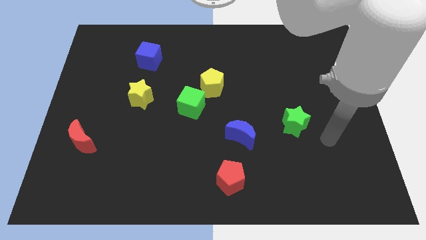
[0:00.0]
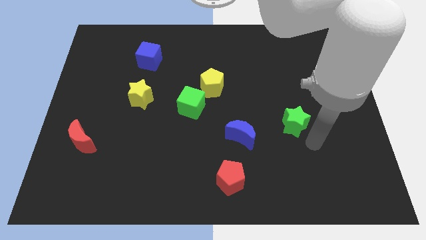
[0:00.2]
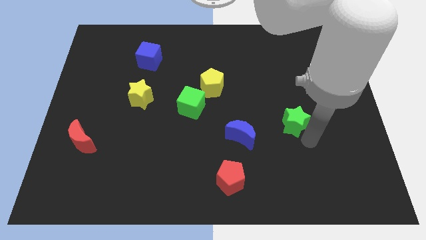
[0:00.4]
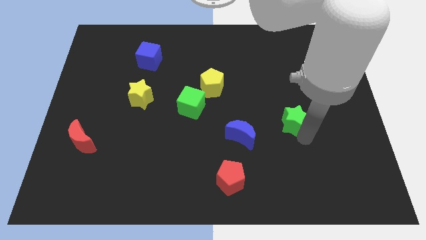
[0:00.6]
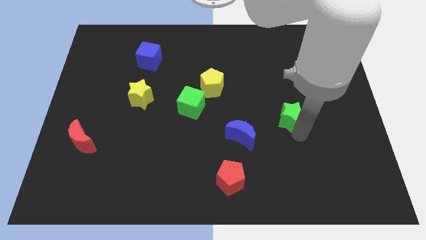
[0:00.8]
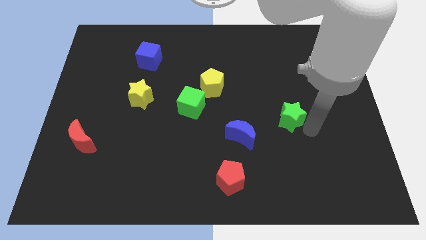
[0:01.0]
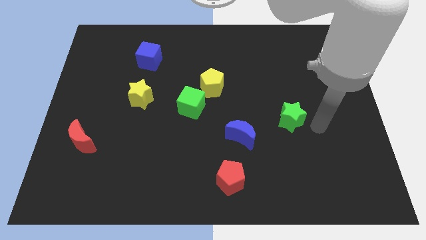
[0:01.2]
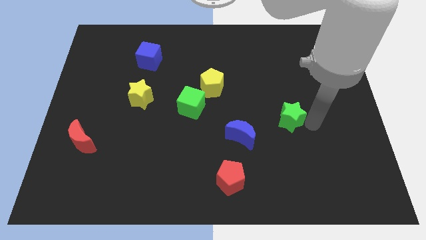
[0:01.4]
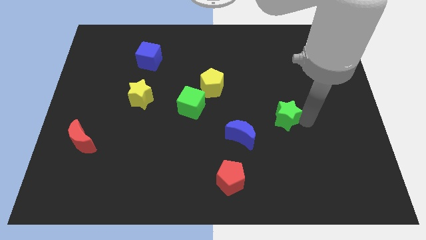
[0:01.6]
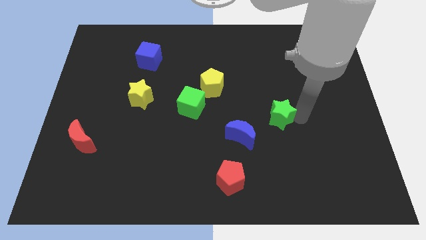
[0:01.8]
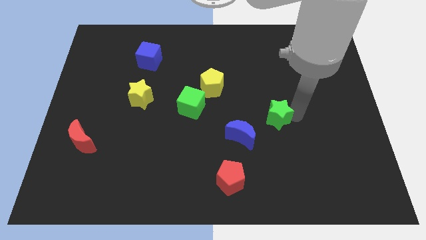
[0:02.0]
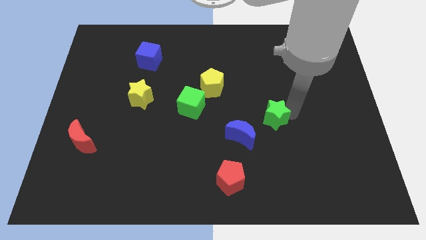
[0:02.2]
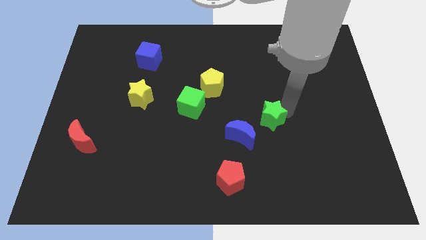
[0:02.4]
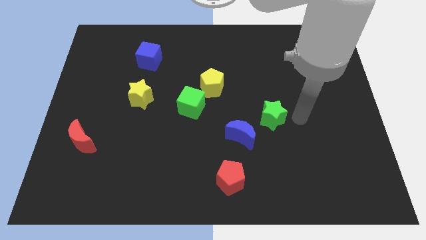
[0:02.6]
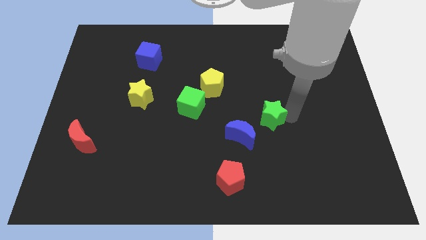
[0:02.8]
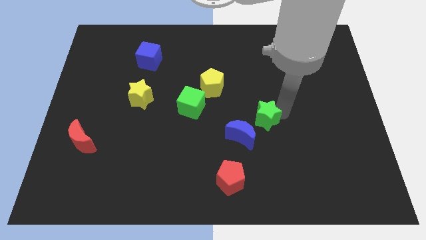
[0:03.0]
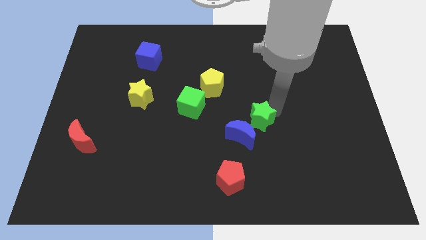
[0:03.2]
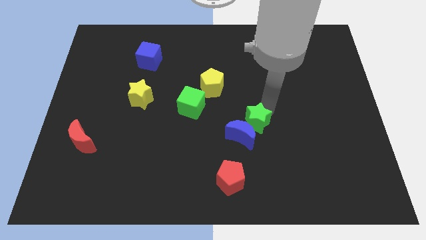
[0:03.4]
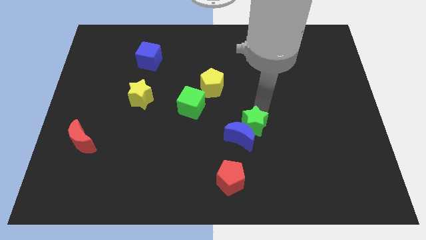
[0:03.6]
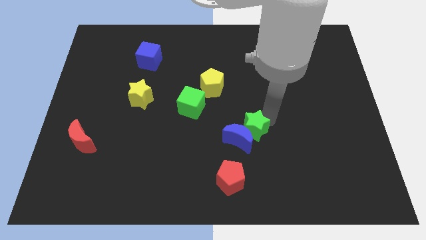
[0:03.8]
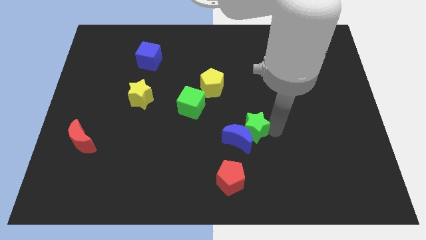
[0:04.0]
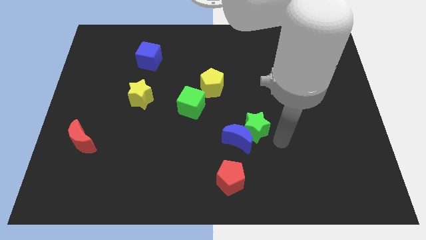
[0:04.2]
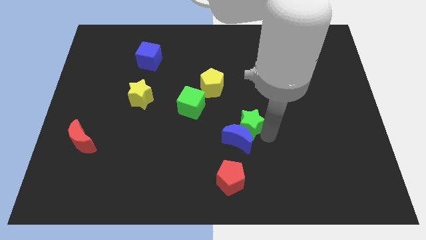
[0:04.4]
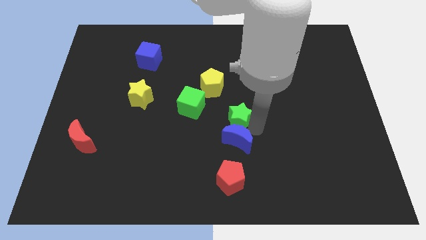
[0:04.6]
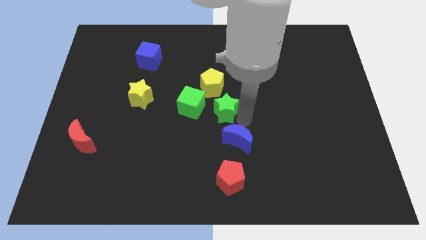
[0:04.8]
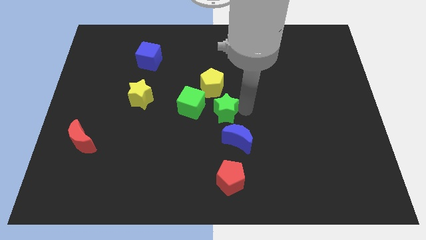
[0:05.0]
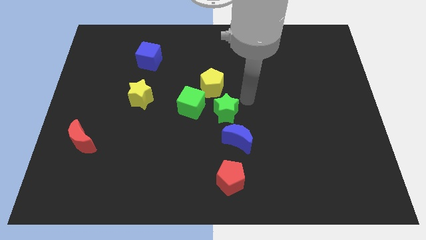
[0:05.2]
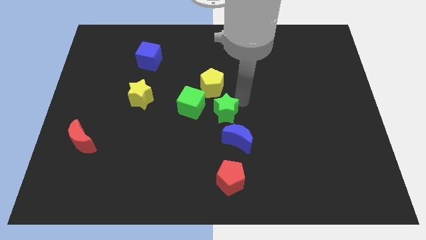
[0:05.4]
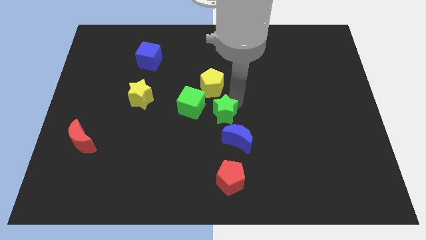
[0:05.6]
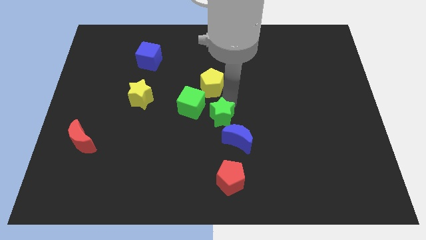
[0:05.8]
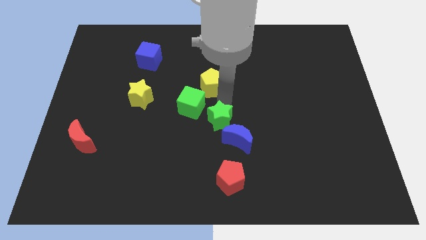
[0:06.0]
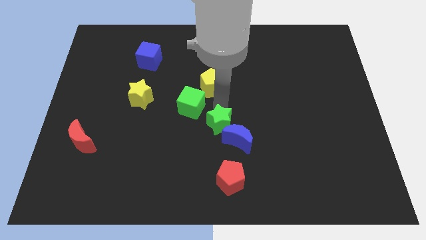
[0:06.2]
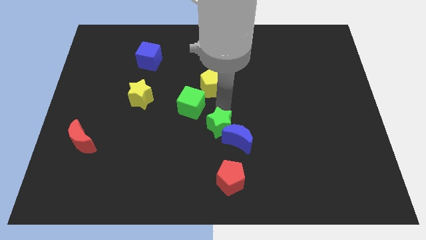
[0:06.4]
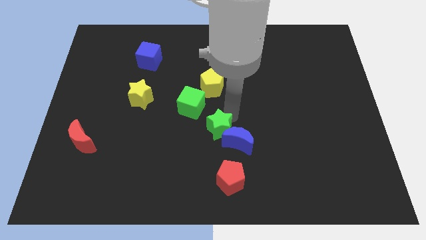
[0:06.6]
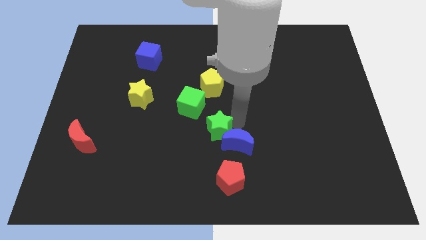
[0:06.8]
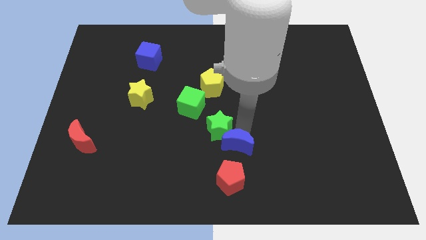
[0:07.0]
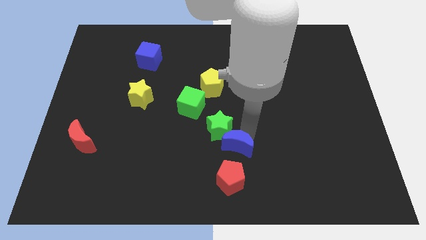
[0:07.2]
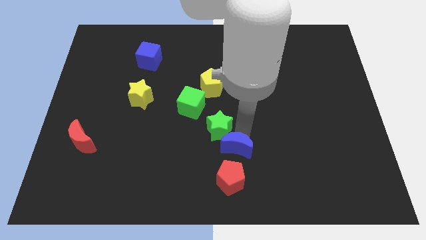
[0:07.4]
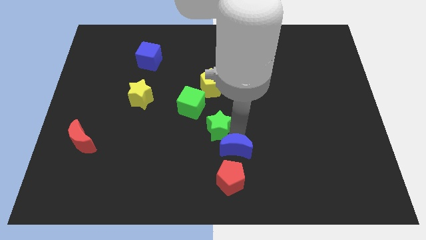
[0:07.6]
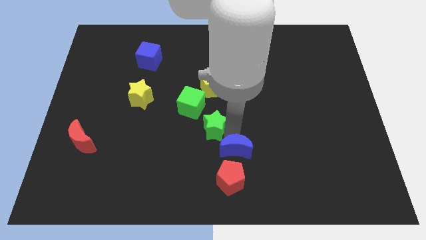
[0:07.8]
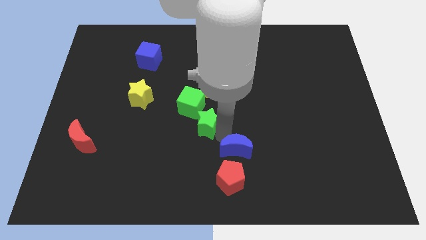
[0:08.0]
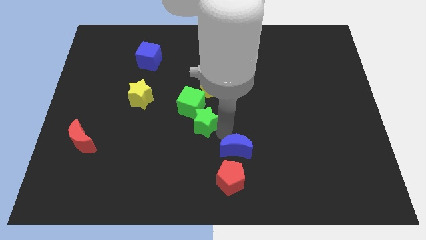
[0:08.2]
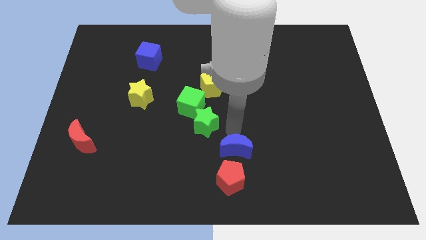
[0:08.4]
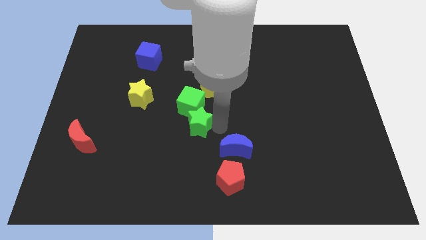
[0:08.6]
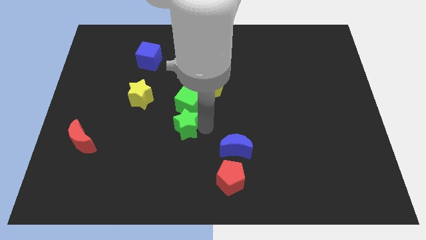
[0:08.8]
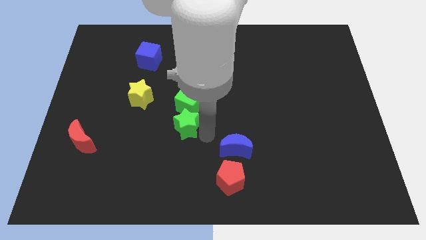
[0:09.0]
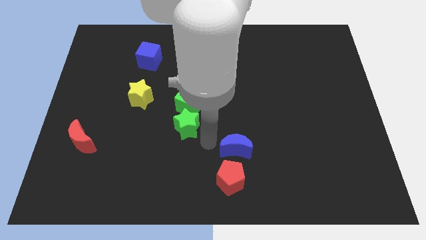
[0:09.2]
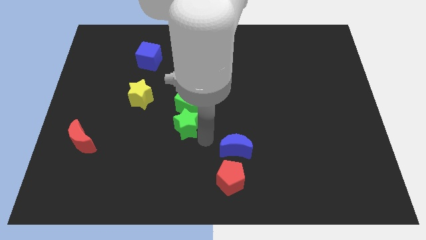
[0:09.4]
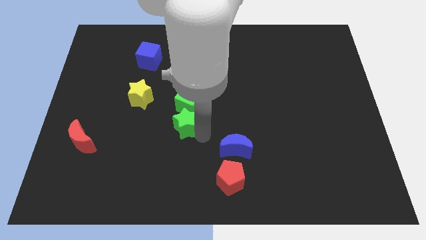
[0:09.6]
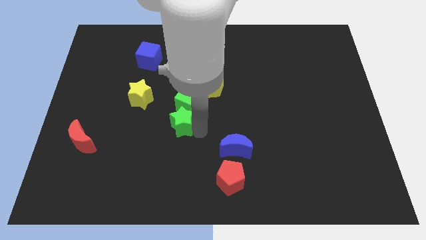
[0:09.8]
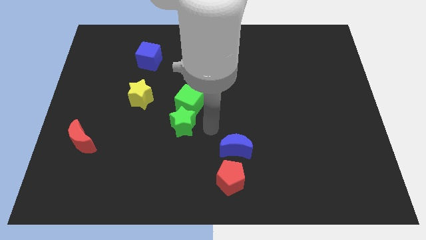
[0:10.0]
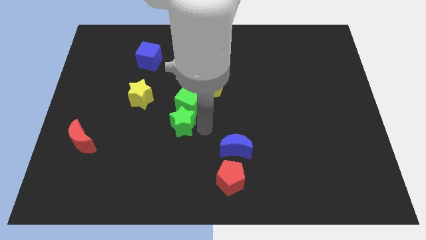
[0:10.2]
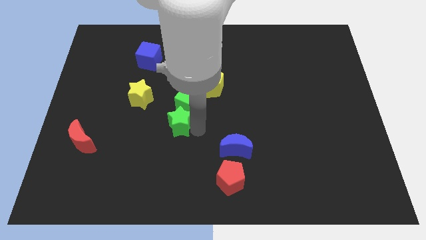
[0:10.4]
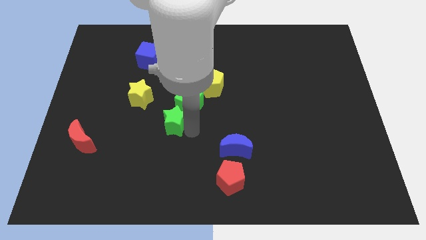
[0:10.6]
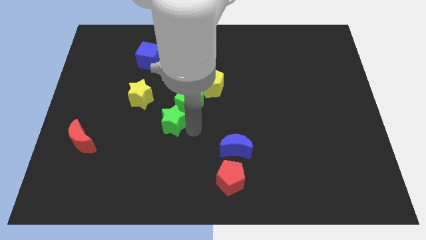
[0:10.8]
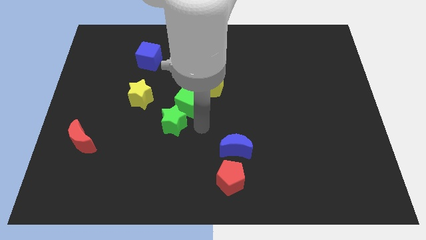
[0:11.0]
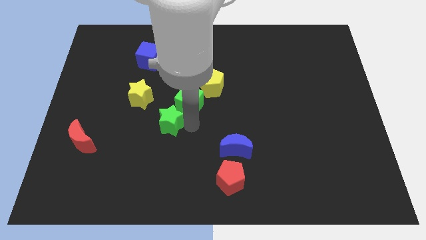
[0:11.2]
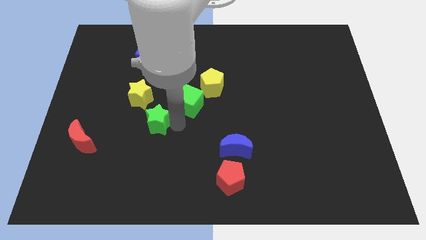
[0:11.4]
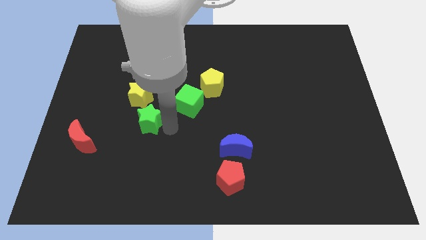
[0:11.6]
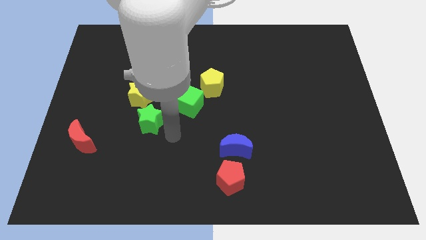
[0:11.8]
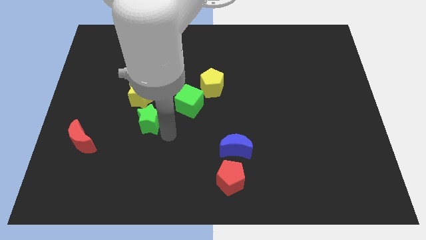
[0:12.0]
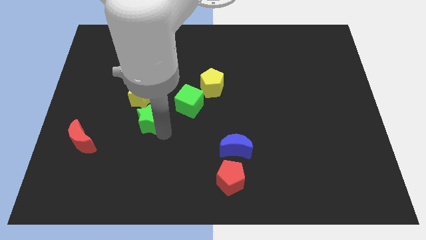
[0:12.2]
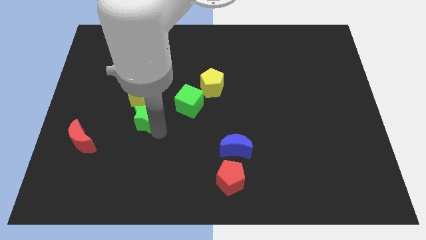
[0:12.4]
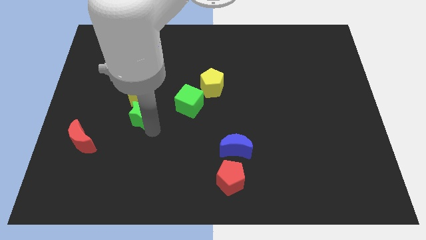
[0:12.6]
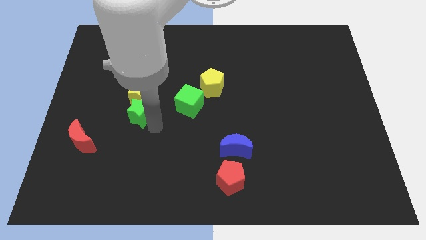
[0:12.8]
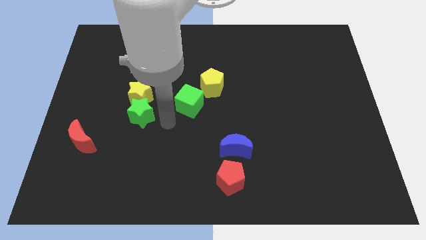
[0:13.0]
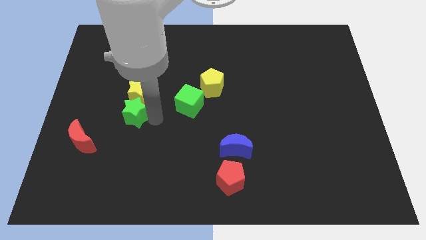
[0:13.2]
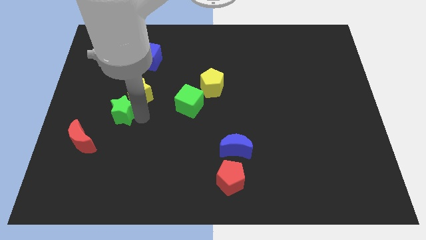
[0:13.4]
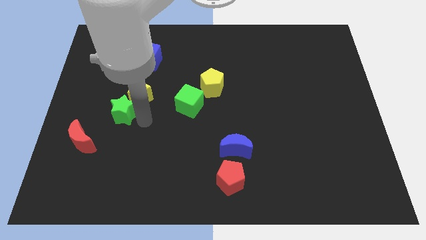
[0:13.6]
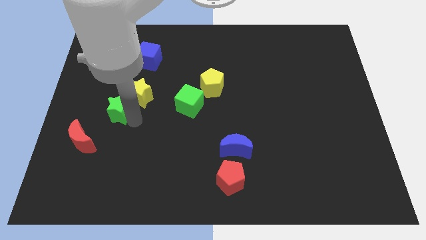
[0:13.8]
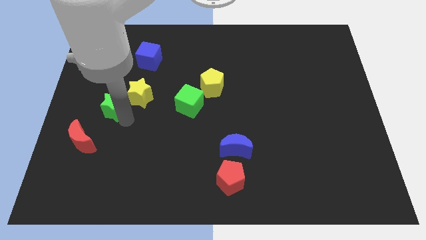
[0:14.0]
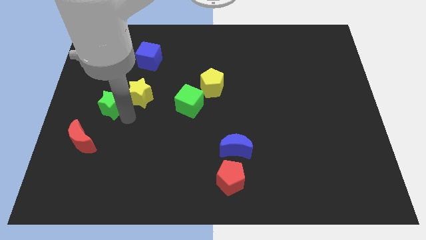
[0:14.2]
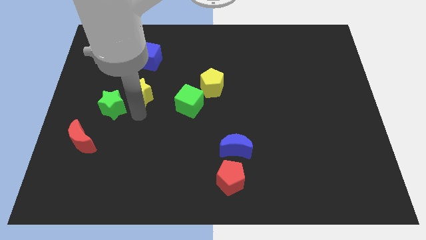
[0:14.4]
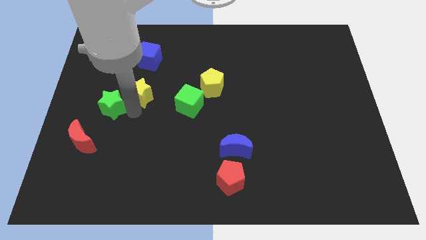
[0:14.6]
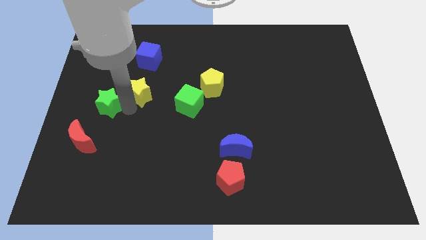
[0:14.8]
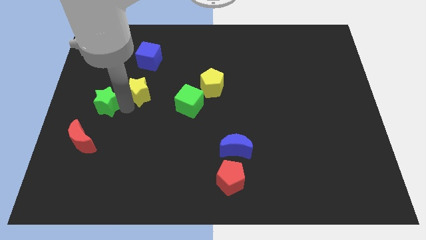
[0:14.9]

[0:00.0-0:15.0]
move the green star to the center left
